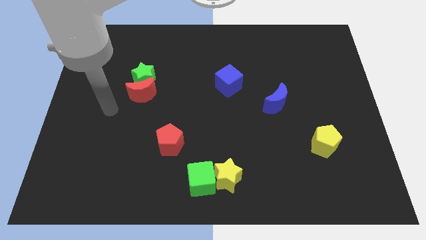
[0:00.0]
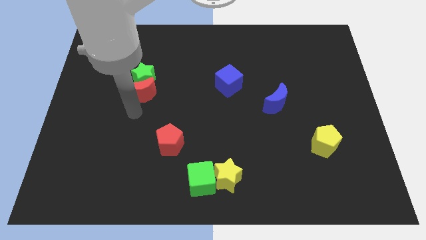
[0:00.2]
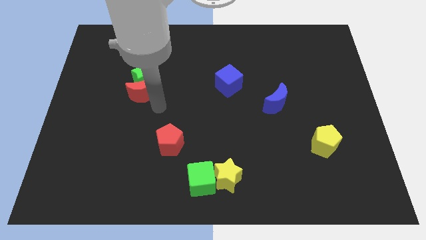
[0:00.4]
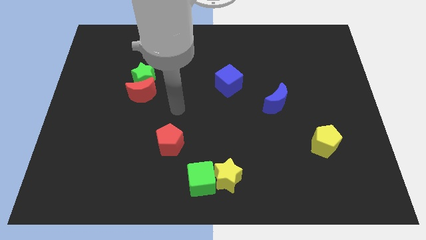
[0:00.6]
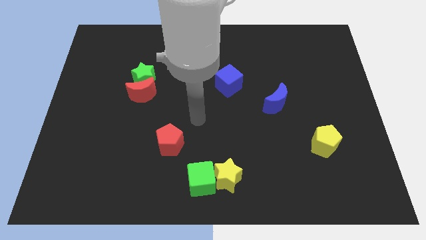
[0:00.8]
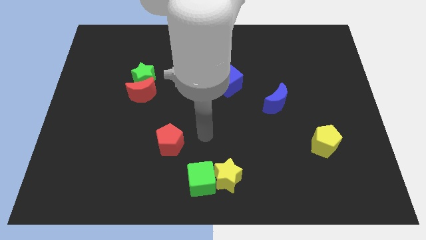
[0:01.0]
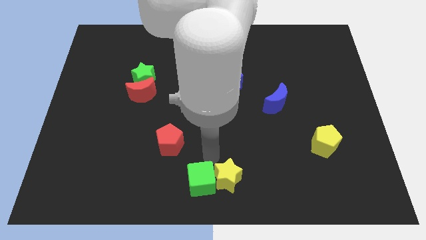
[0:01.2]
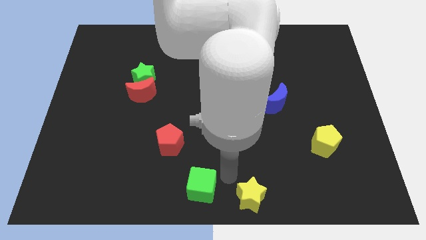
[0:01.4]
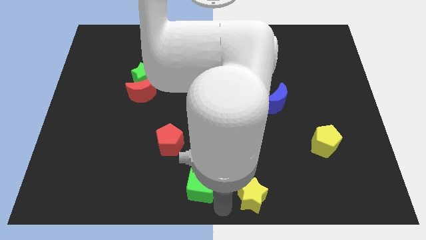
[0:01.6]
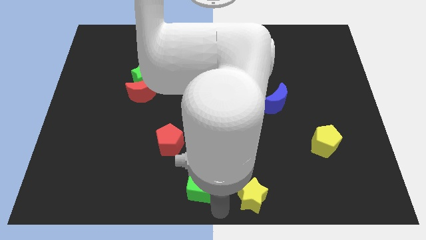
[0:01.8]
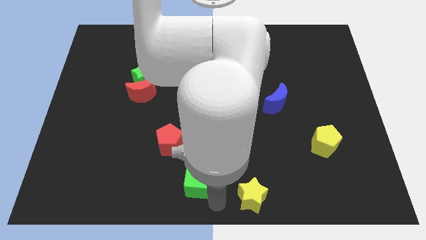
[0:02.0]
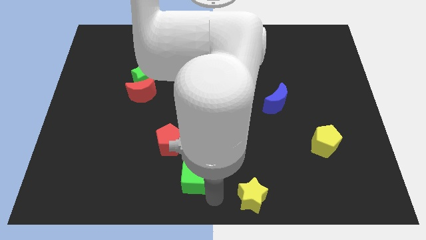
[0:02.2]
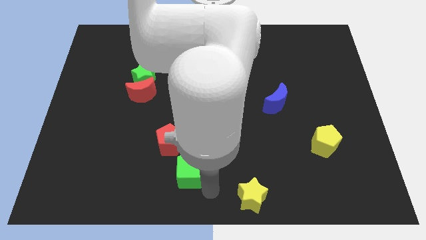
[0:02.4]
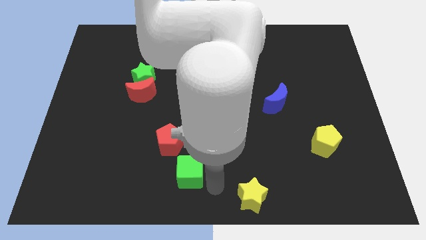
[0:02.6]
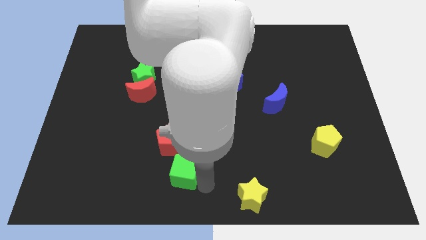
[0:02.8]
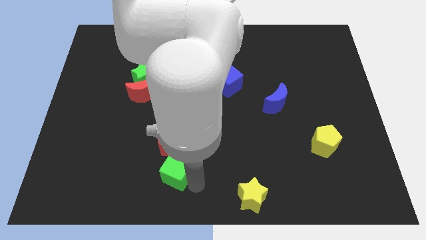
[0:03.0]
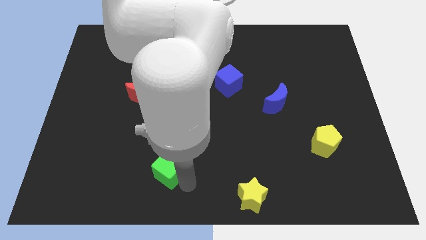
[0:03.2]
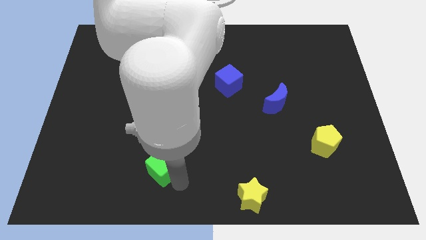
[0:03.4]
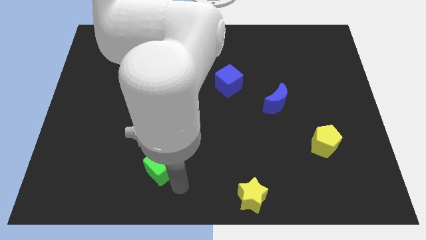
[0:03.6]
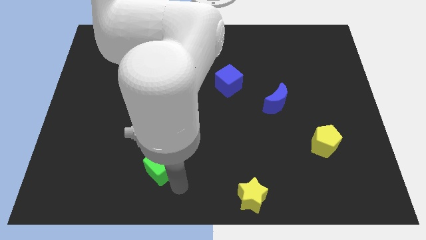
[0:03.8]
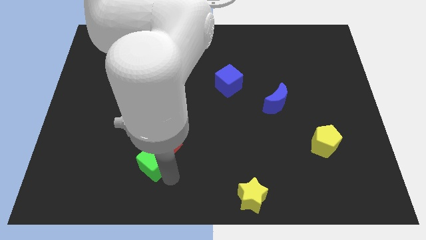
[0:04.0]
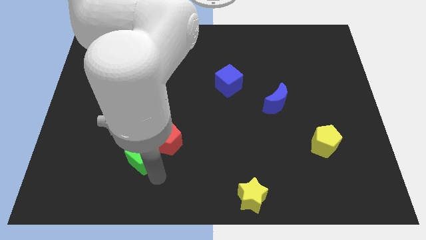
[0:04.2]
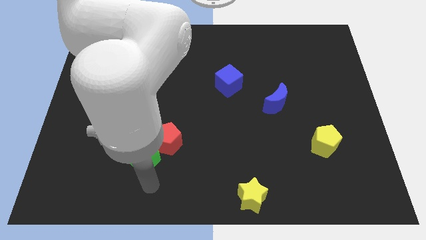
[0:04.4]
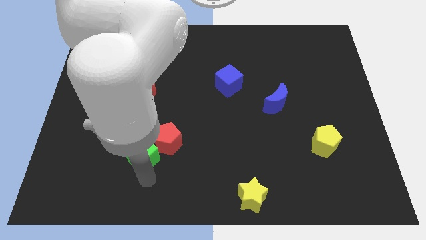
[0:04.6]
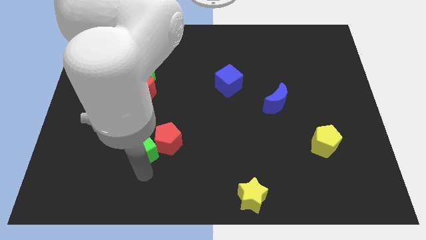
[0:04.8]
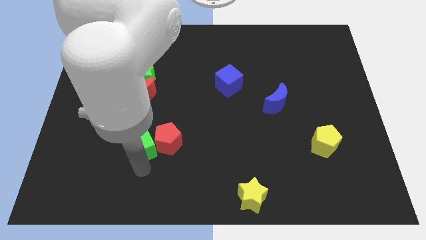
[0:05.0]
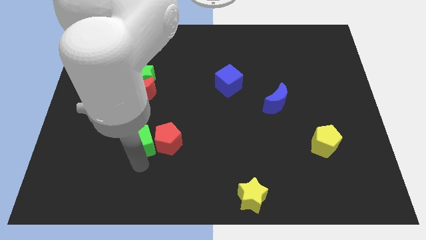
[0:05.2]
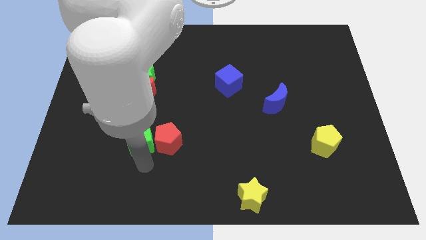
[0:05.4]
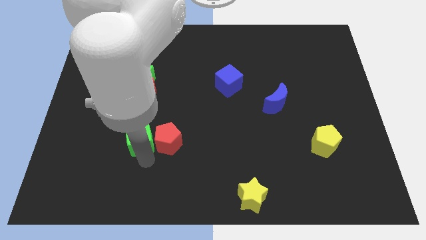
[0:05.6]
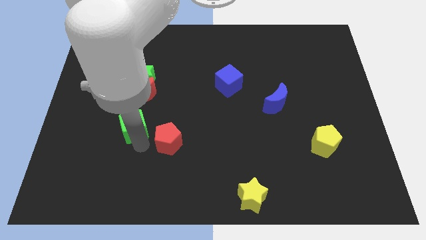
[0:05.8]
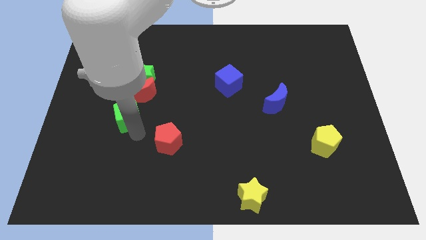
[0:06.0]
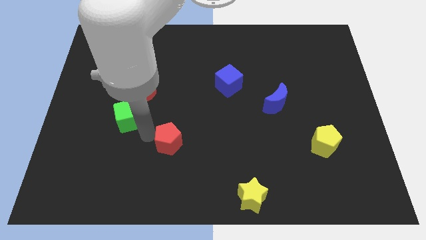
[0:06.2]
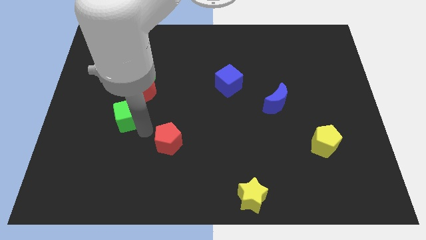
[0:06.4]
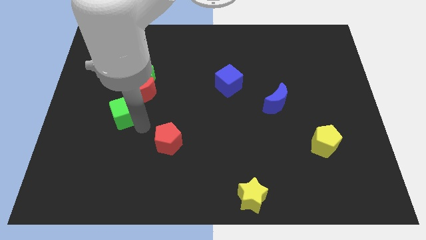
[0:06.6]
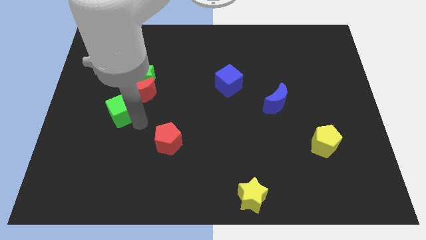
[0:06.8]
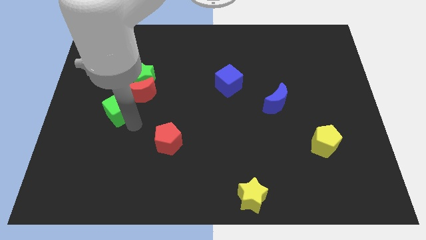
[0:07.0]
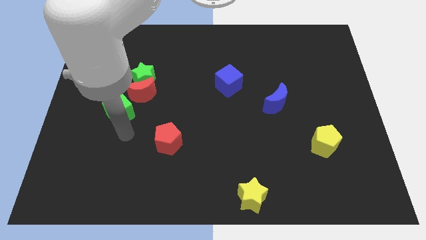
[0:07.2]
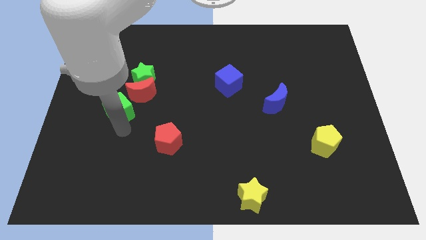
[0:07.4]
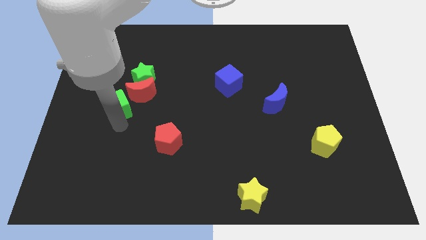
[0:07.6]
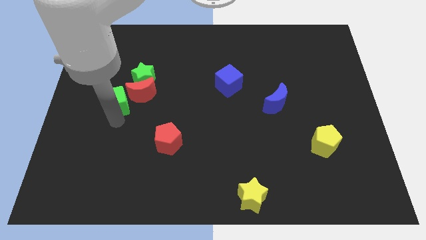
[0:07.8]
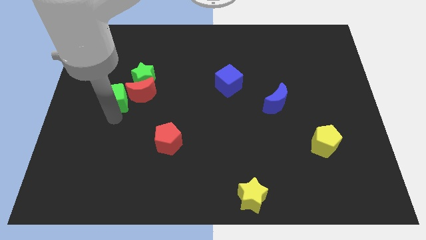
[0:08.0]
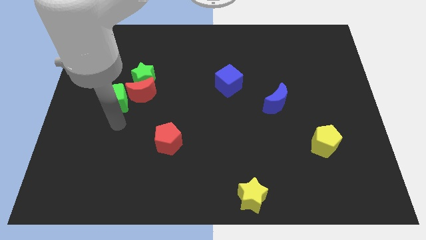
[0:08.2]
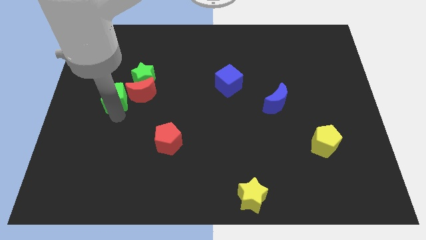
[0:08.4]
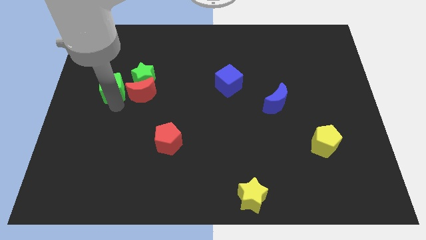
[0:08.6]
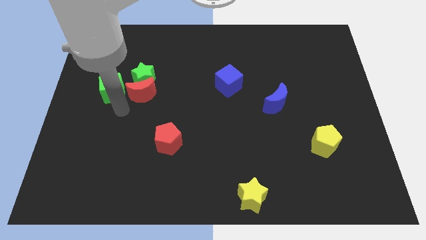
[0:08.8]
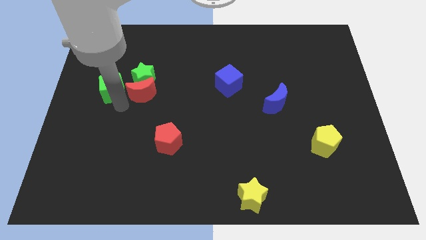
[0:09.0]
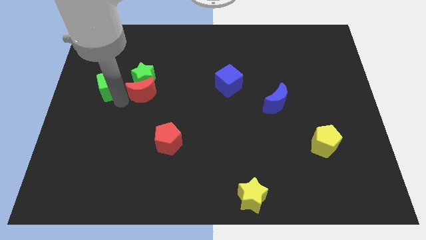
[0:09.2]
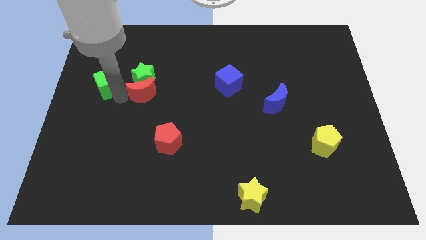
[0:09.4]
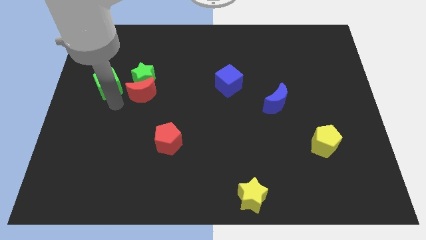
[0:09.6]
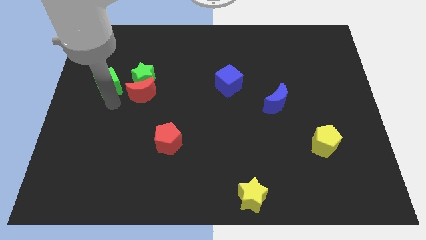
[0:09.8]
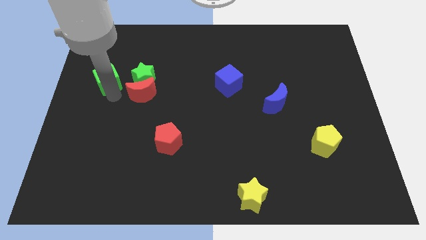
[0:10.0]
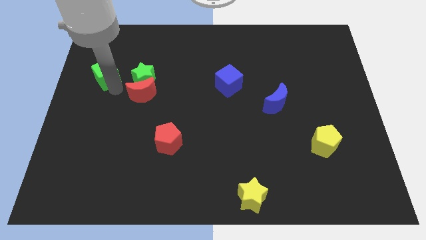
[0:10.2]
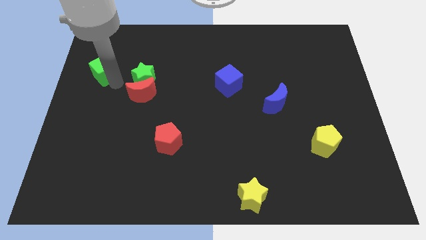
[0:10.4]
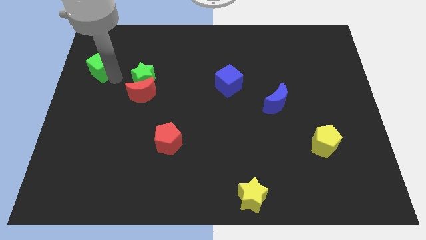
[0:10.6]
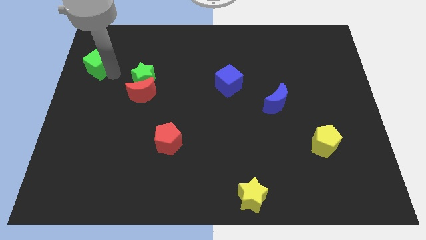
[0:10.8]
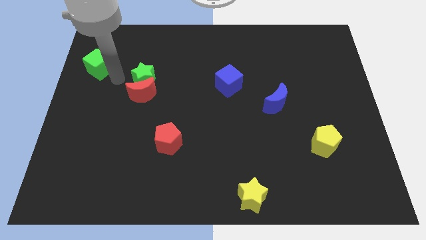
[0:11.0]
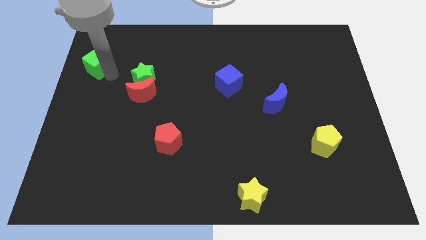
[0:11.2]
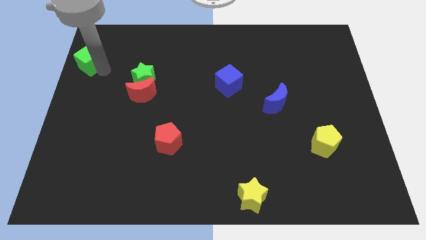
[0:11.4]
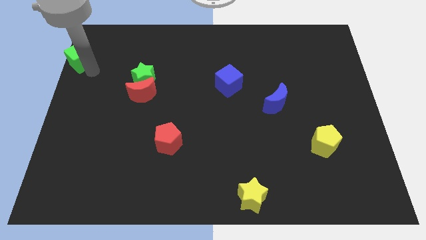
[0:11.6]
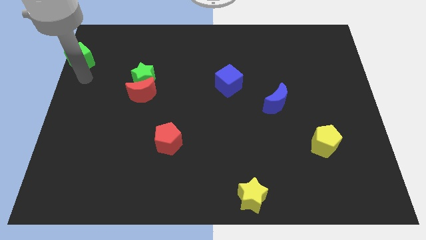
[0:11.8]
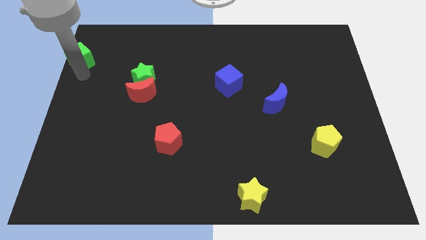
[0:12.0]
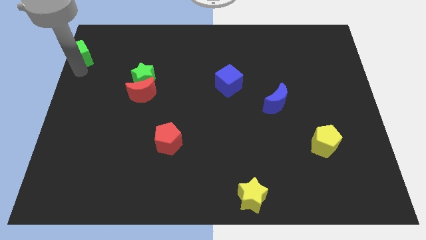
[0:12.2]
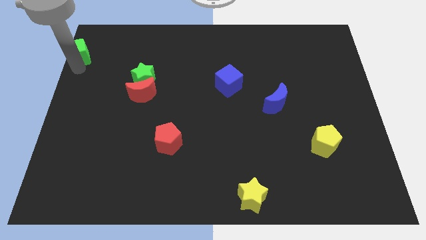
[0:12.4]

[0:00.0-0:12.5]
put the green cube to the top left of the board
